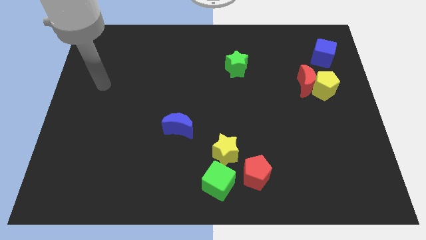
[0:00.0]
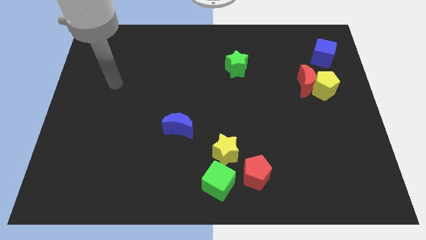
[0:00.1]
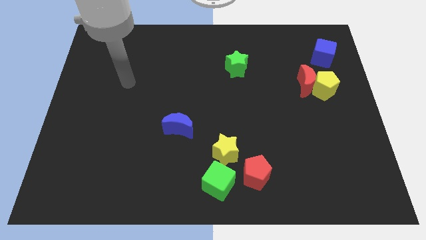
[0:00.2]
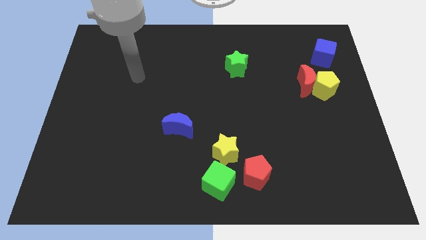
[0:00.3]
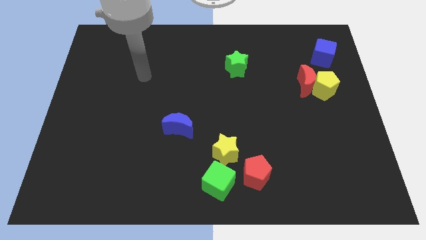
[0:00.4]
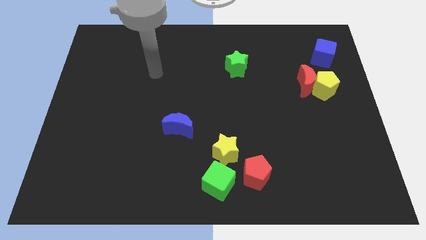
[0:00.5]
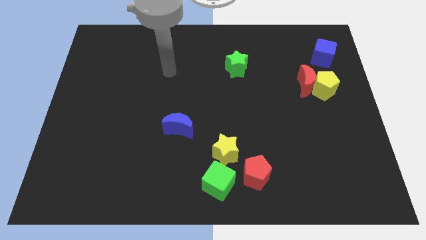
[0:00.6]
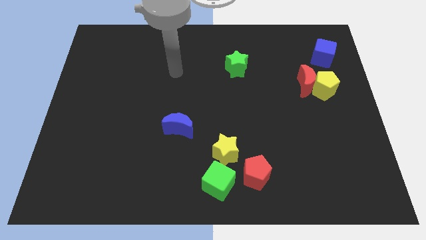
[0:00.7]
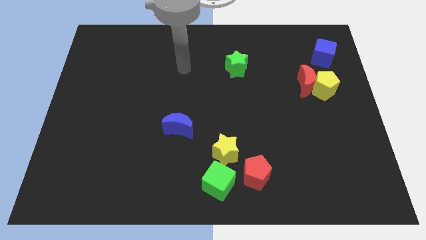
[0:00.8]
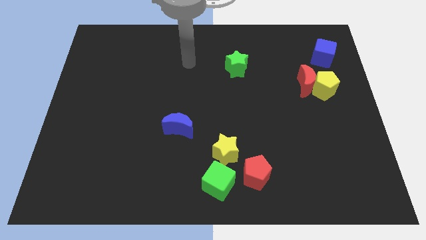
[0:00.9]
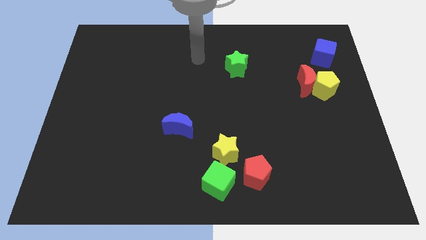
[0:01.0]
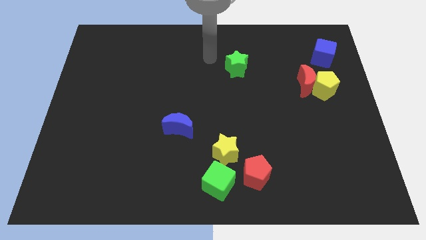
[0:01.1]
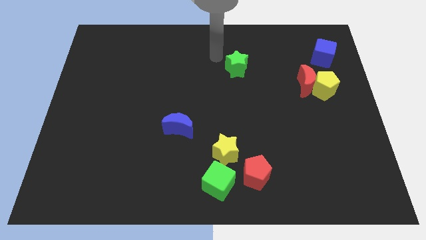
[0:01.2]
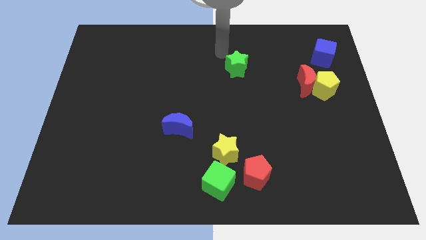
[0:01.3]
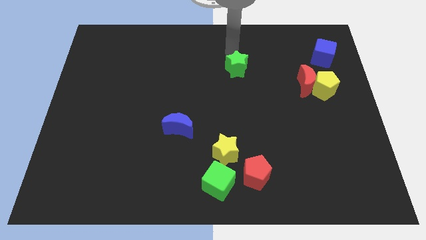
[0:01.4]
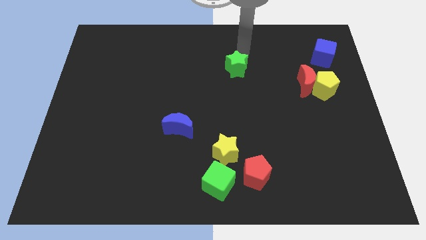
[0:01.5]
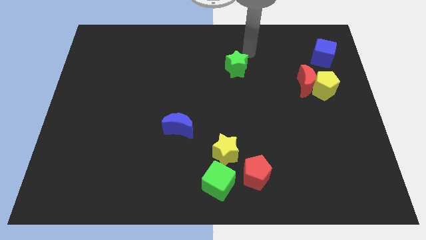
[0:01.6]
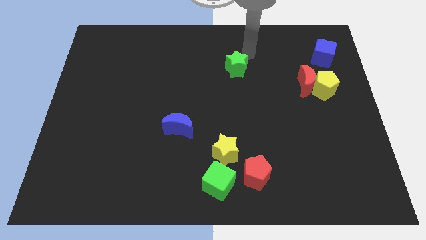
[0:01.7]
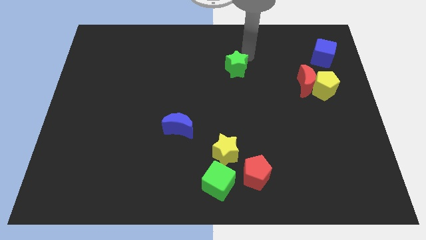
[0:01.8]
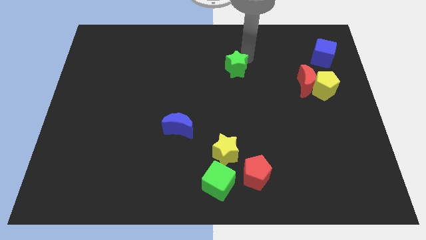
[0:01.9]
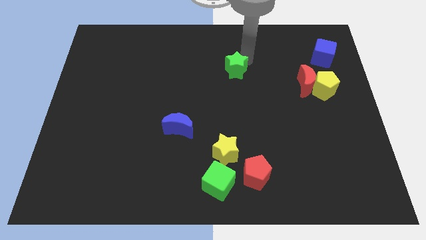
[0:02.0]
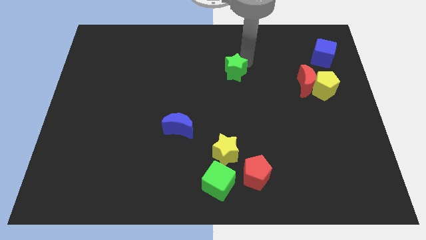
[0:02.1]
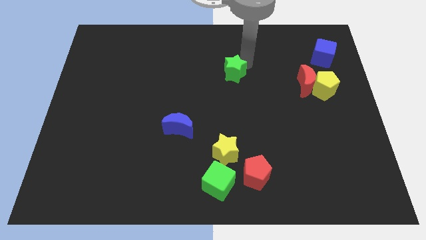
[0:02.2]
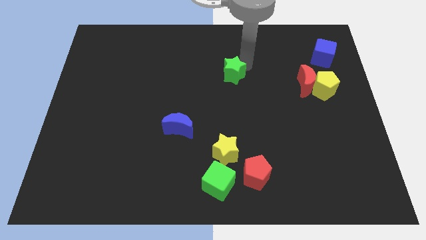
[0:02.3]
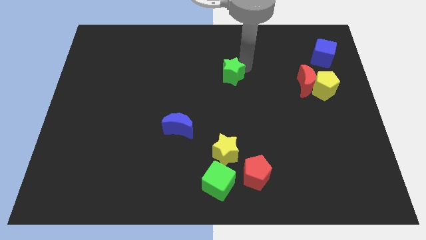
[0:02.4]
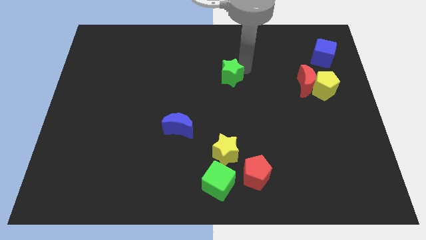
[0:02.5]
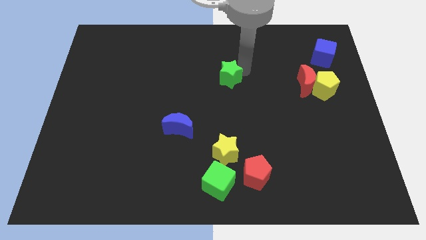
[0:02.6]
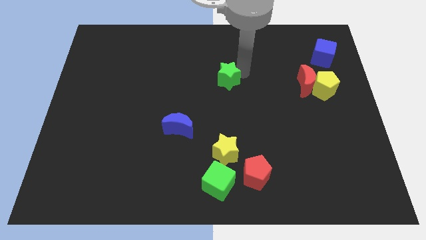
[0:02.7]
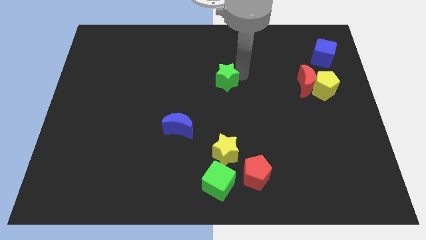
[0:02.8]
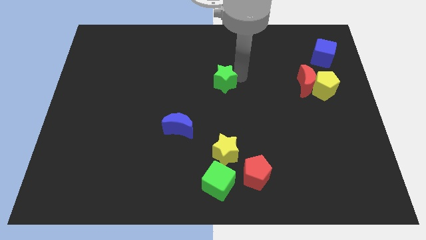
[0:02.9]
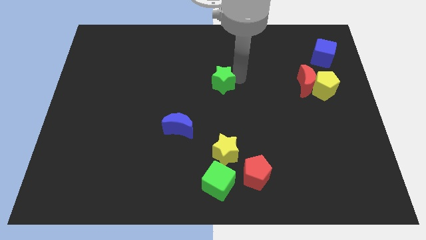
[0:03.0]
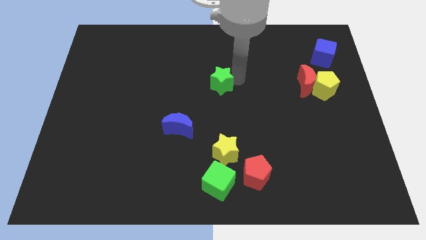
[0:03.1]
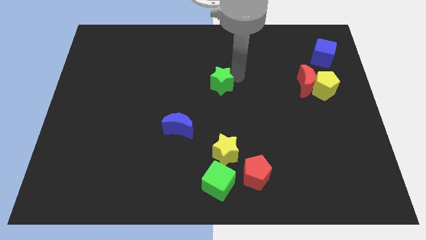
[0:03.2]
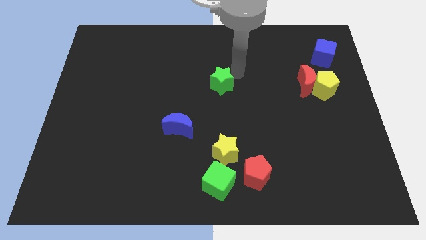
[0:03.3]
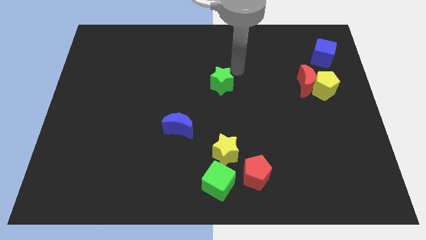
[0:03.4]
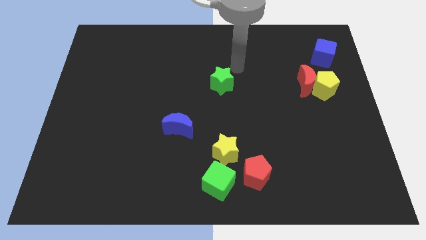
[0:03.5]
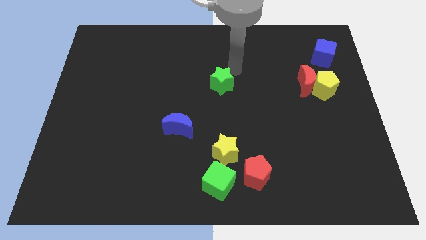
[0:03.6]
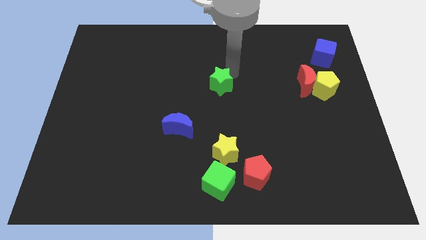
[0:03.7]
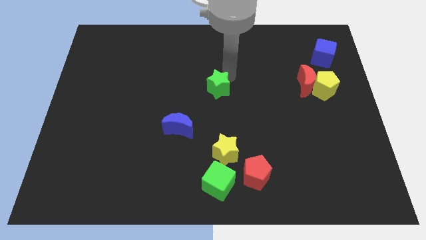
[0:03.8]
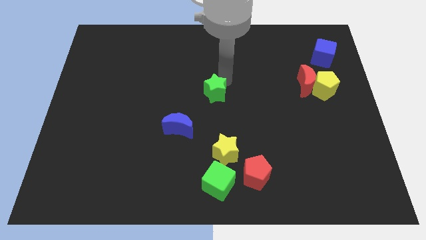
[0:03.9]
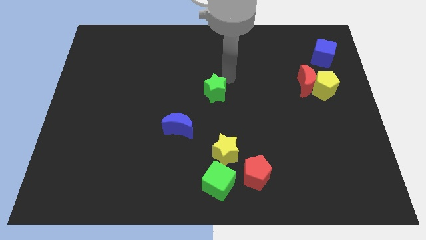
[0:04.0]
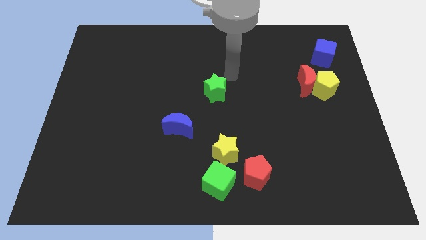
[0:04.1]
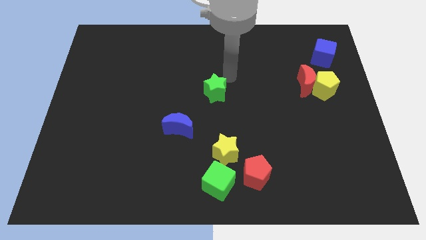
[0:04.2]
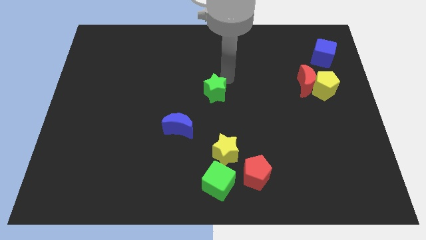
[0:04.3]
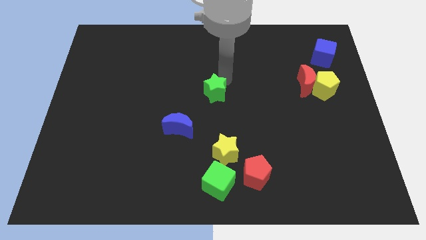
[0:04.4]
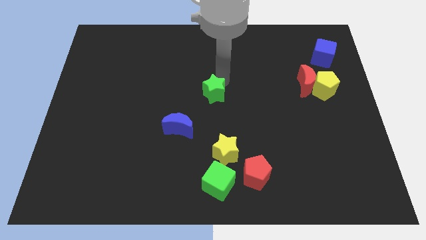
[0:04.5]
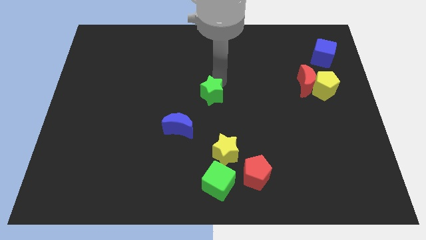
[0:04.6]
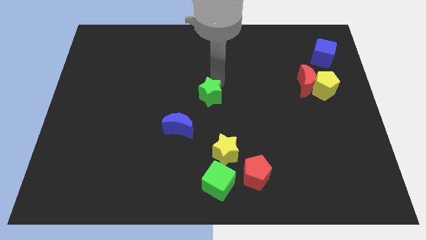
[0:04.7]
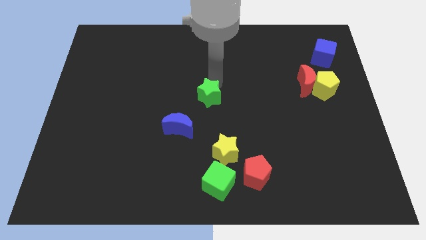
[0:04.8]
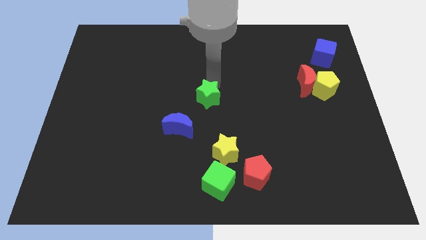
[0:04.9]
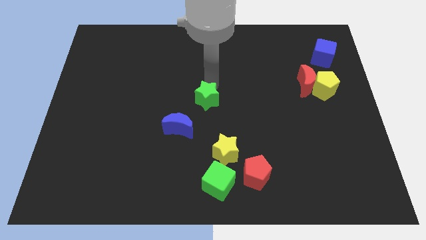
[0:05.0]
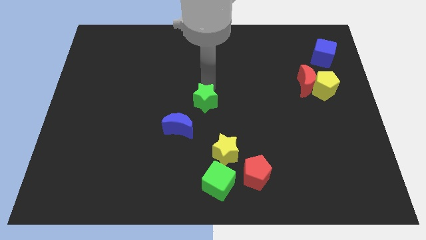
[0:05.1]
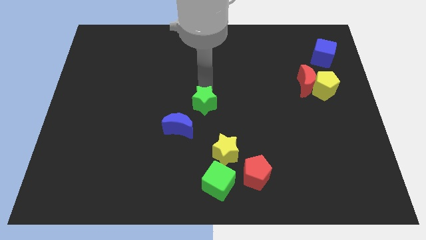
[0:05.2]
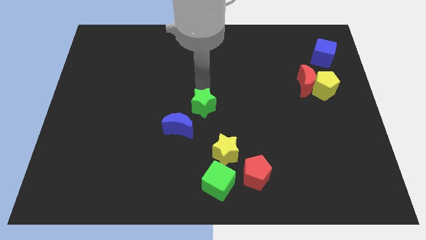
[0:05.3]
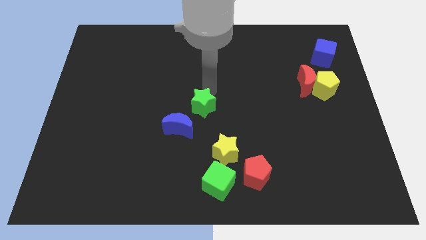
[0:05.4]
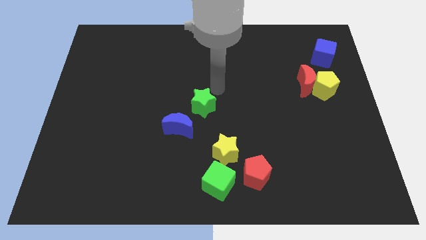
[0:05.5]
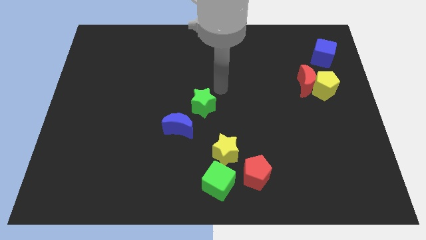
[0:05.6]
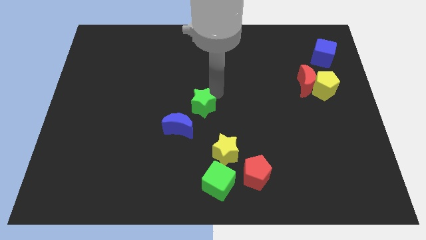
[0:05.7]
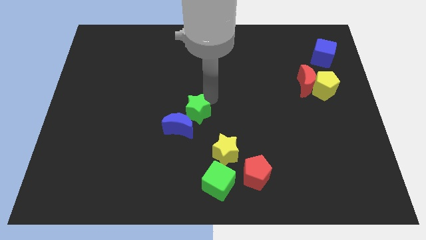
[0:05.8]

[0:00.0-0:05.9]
push the green star to the blue moon

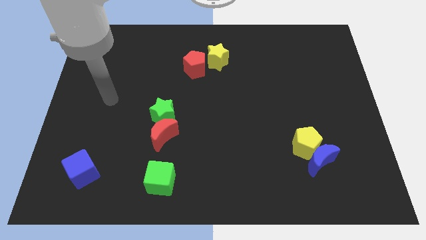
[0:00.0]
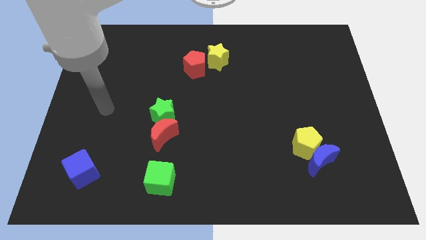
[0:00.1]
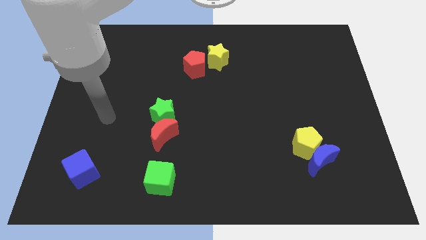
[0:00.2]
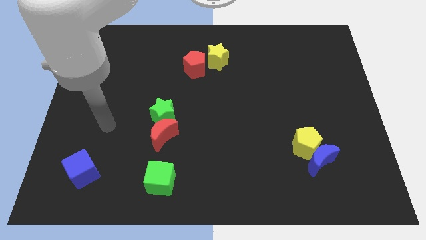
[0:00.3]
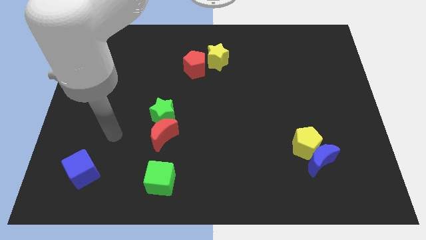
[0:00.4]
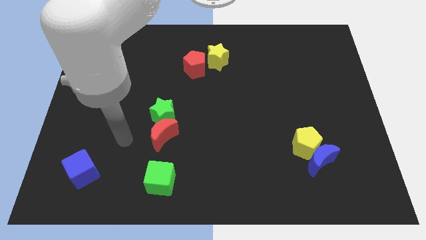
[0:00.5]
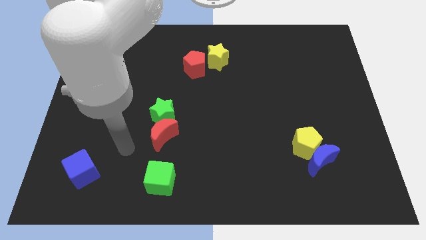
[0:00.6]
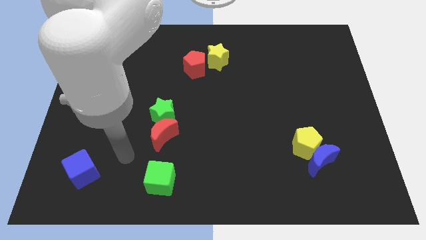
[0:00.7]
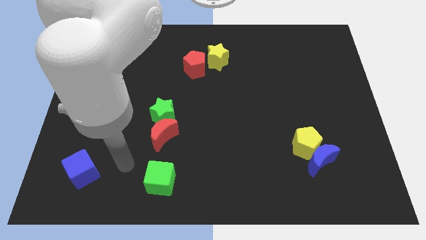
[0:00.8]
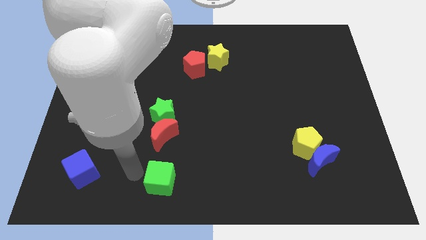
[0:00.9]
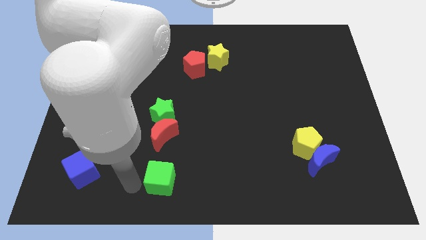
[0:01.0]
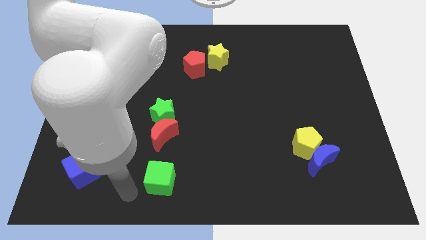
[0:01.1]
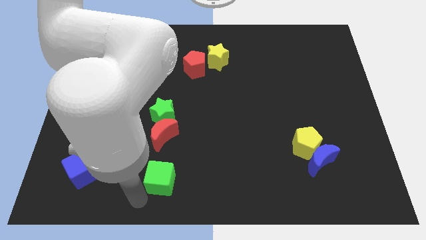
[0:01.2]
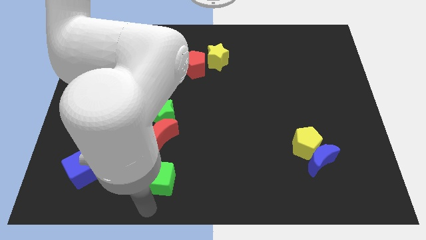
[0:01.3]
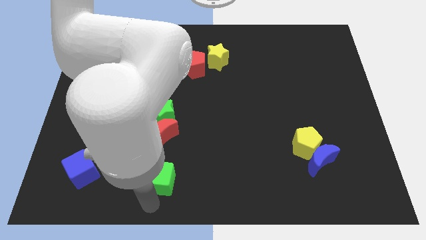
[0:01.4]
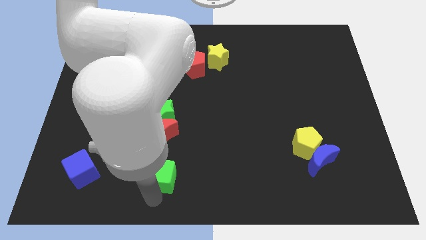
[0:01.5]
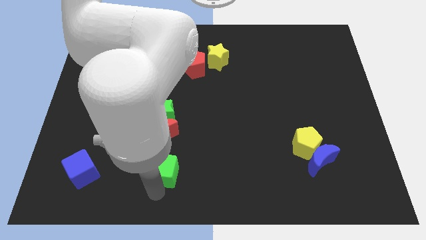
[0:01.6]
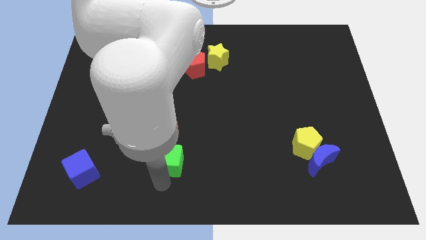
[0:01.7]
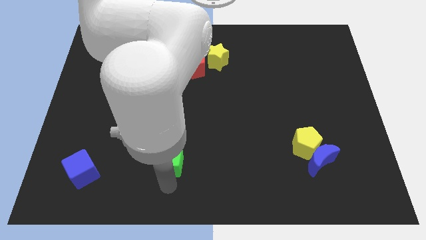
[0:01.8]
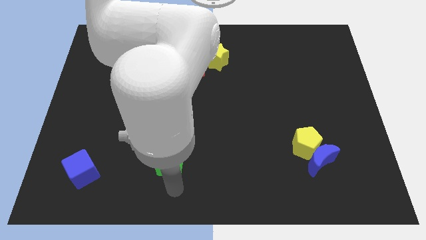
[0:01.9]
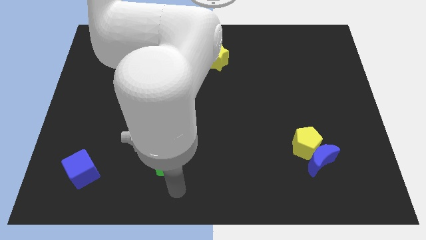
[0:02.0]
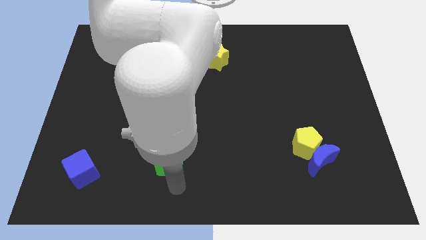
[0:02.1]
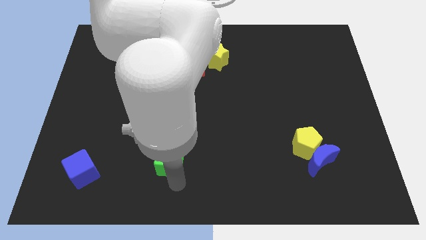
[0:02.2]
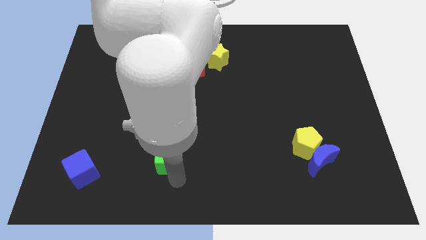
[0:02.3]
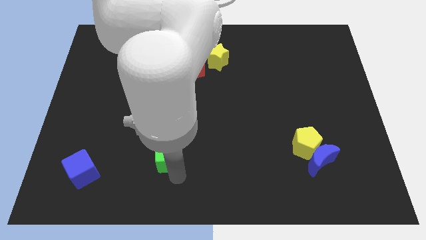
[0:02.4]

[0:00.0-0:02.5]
move the green cube towards the red moon
